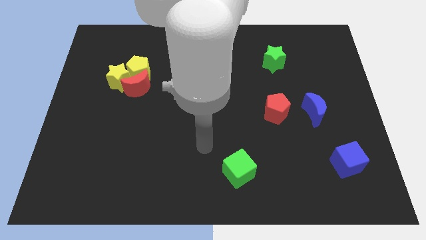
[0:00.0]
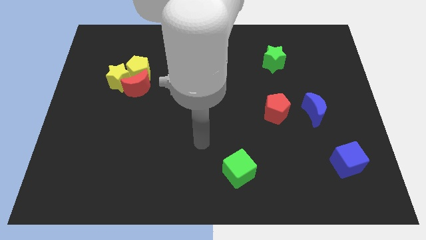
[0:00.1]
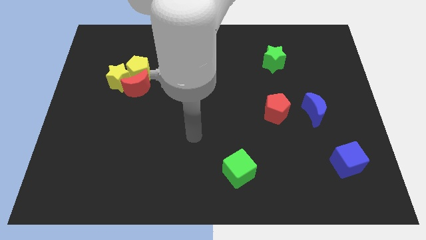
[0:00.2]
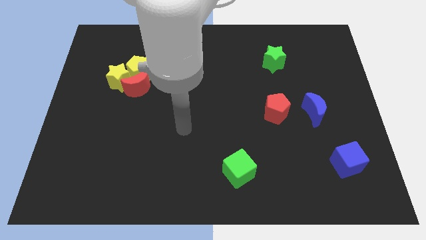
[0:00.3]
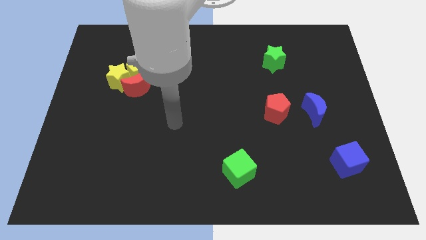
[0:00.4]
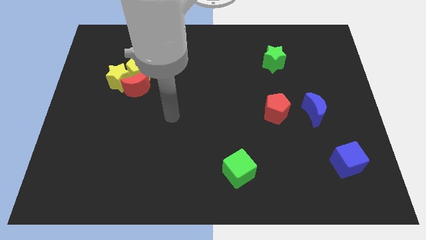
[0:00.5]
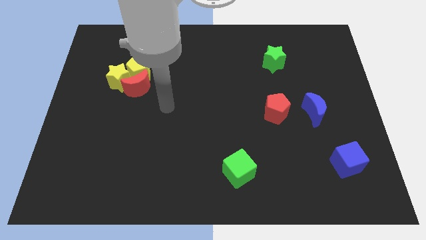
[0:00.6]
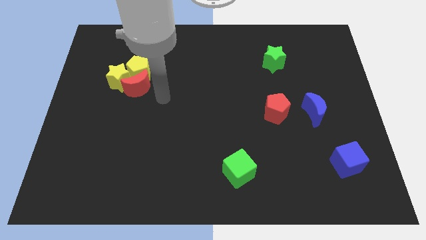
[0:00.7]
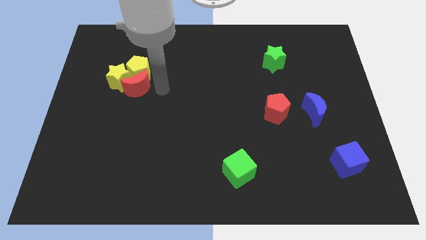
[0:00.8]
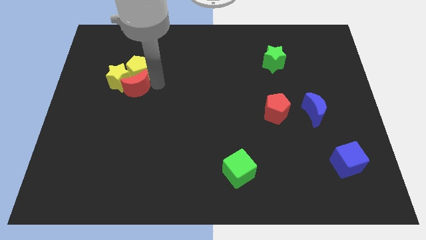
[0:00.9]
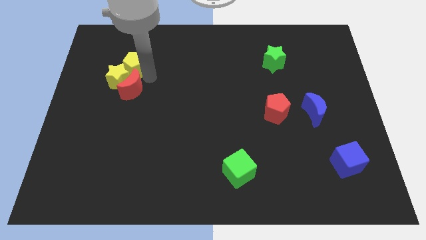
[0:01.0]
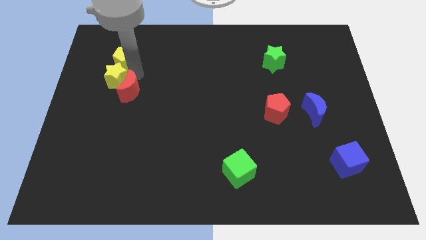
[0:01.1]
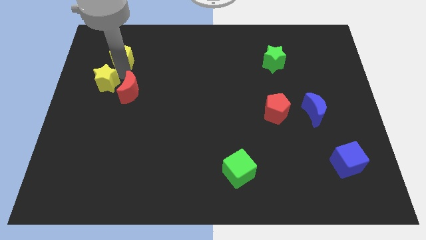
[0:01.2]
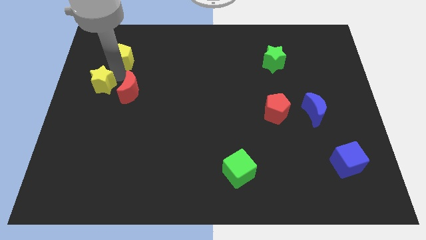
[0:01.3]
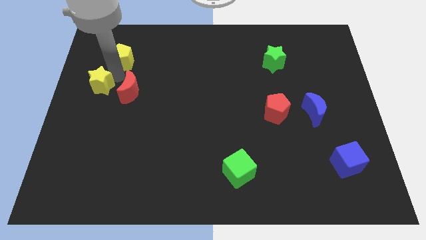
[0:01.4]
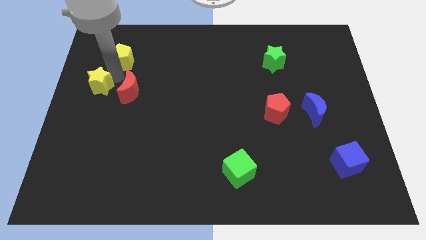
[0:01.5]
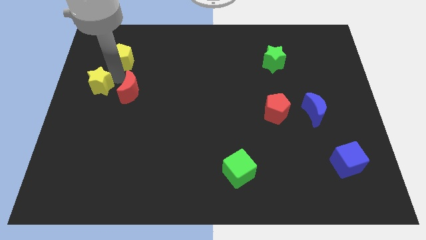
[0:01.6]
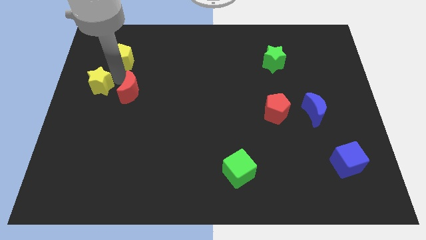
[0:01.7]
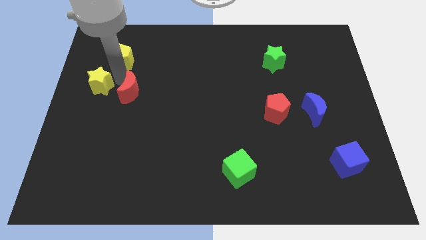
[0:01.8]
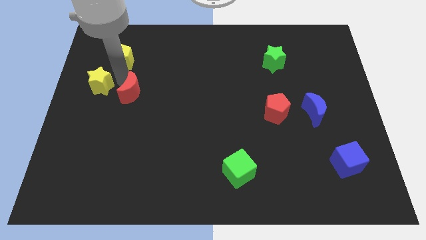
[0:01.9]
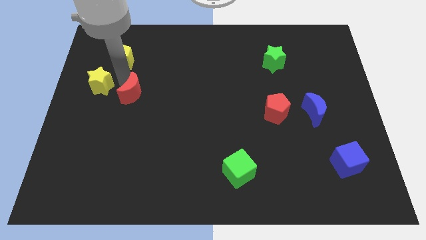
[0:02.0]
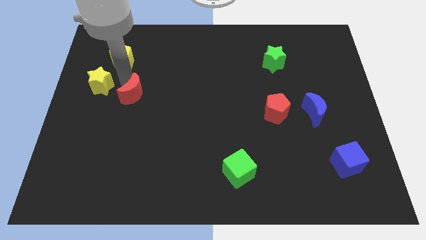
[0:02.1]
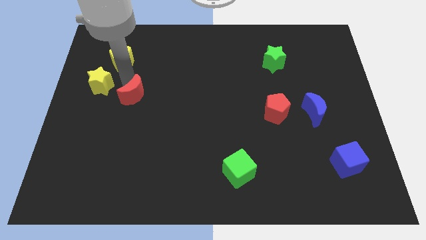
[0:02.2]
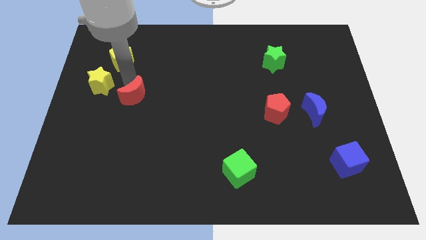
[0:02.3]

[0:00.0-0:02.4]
move the red moon away from the yellow pentagon and yellow star

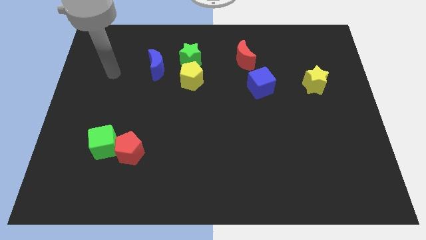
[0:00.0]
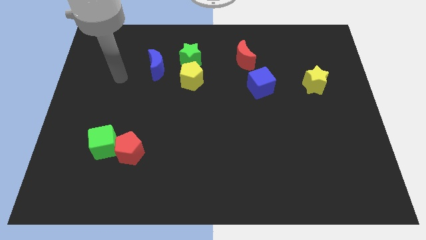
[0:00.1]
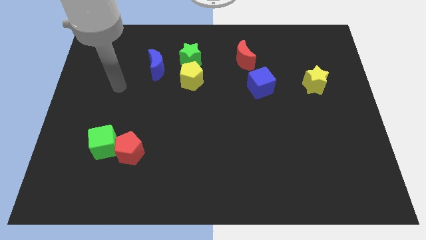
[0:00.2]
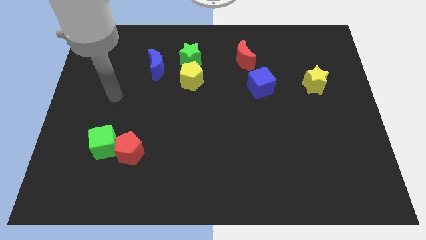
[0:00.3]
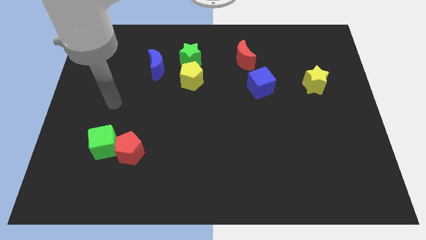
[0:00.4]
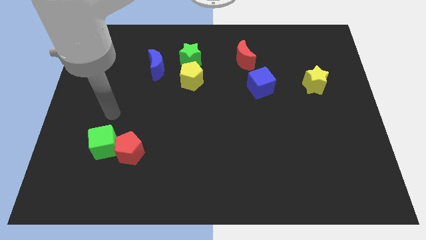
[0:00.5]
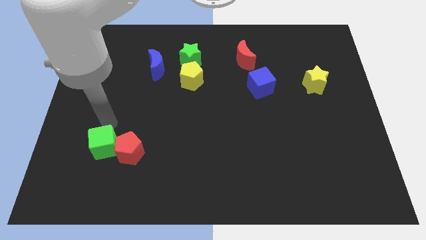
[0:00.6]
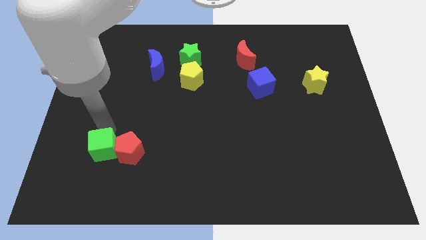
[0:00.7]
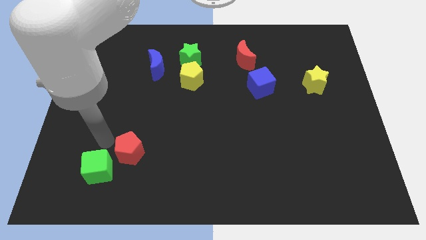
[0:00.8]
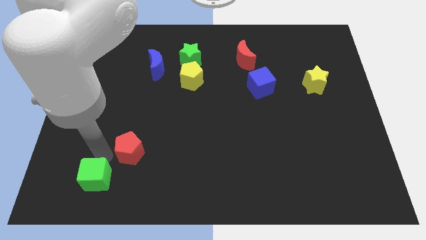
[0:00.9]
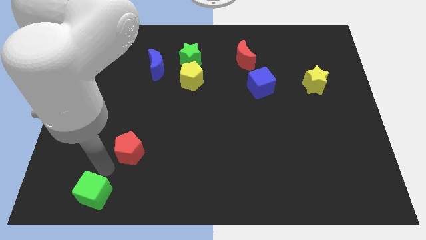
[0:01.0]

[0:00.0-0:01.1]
move the red pentagon away from the green cube

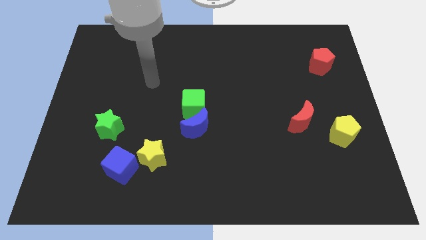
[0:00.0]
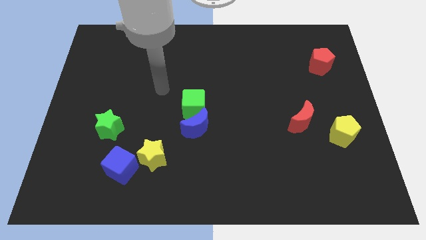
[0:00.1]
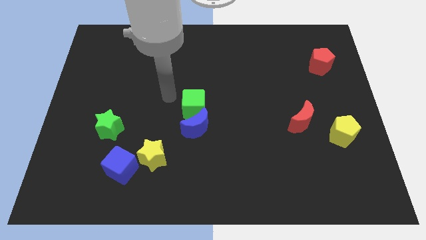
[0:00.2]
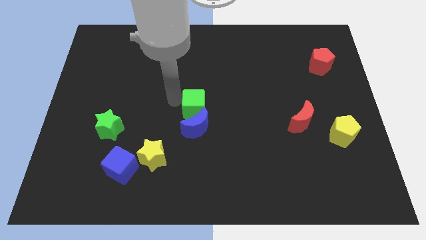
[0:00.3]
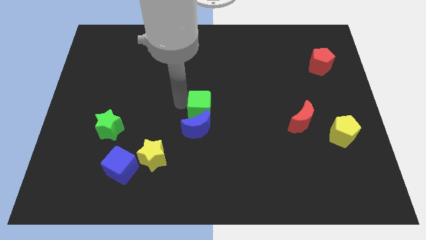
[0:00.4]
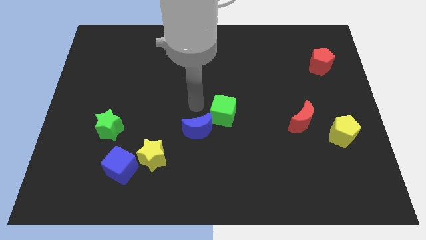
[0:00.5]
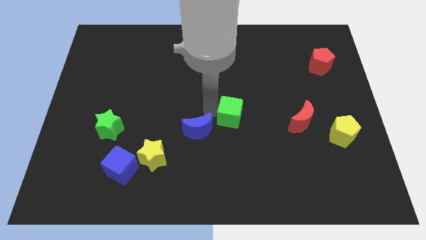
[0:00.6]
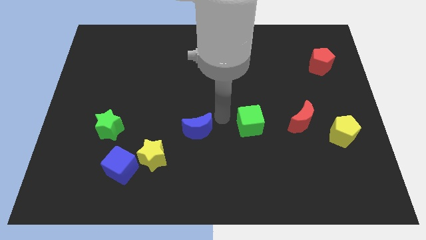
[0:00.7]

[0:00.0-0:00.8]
pull the blue moon apart from the green cube

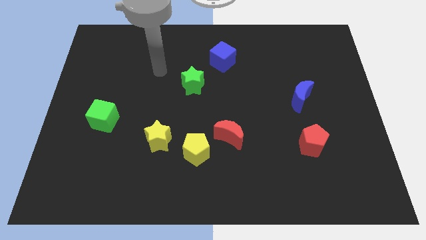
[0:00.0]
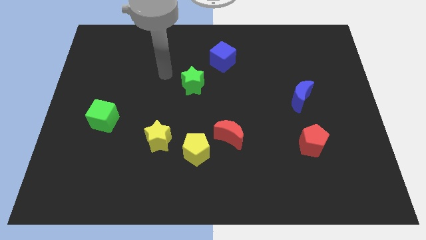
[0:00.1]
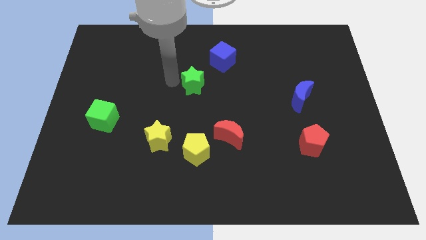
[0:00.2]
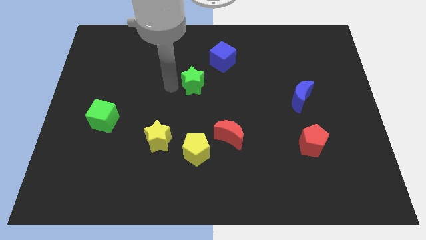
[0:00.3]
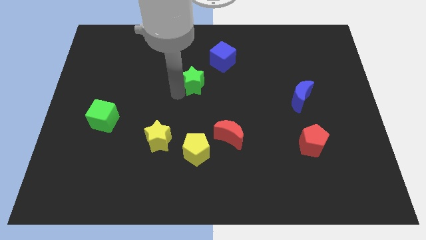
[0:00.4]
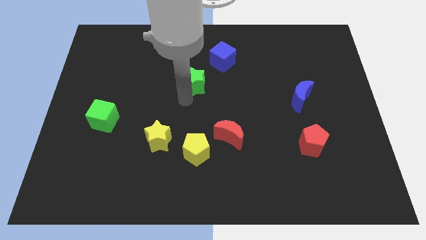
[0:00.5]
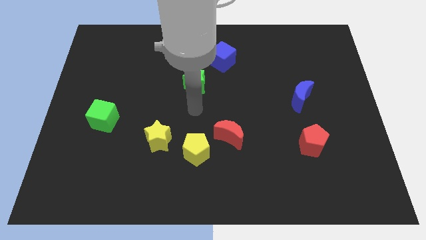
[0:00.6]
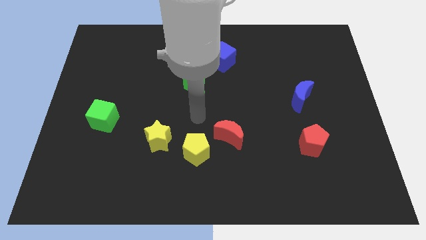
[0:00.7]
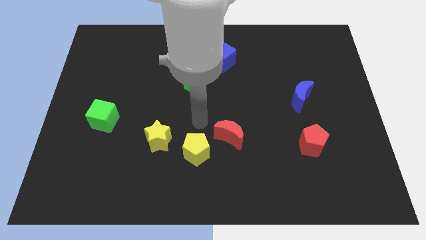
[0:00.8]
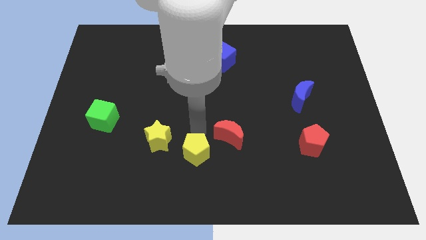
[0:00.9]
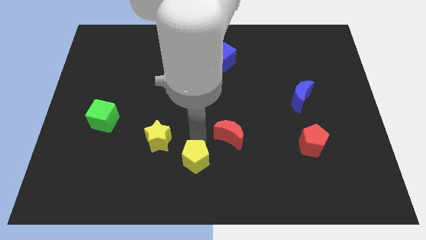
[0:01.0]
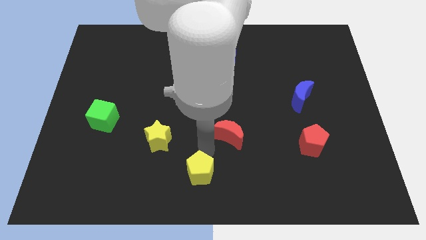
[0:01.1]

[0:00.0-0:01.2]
pull the red moon apart from the yellow pentagon

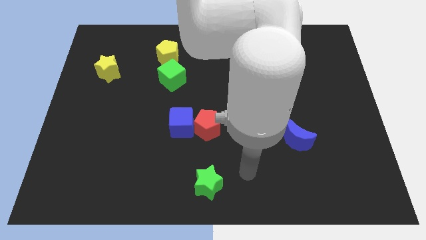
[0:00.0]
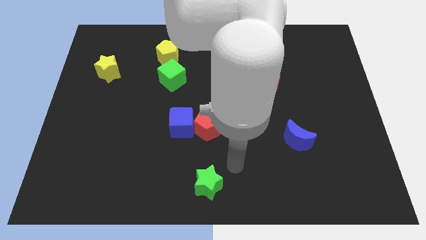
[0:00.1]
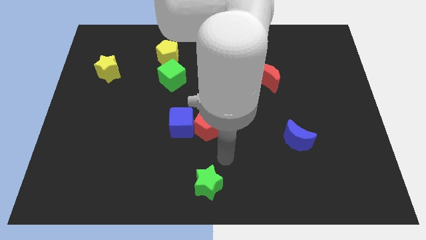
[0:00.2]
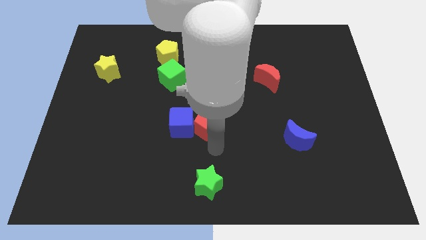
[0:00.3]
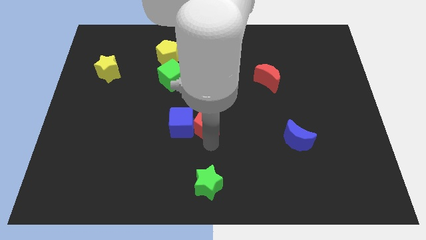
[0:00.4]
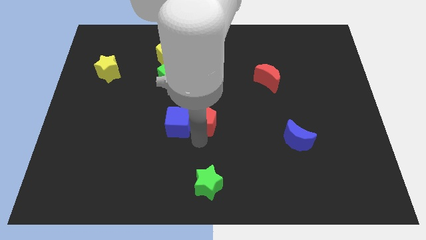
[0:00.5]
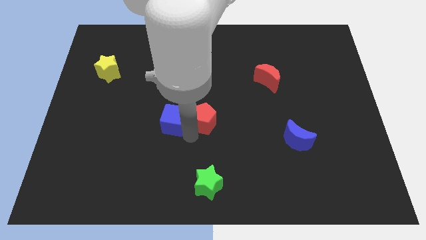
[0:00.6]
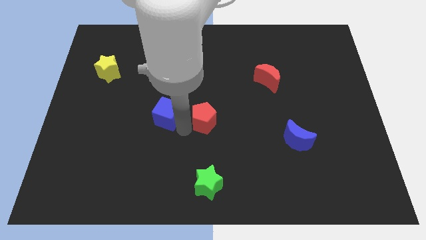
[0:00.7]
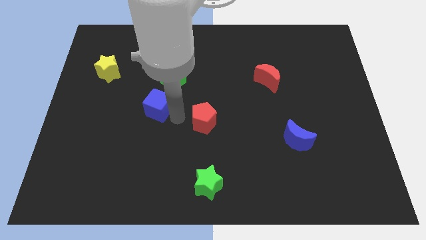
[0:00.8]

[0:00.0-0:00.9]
move the red pentagon away from the blue cube

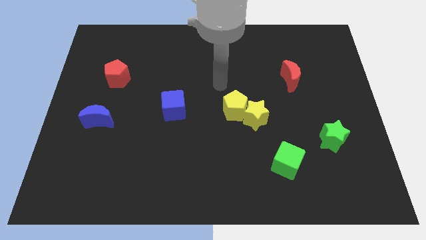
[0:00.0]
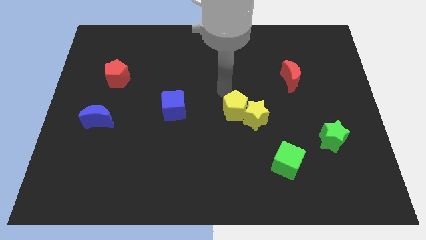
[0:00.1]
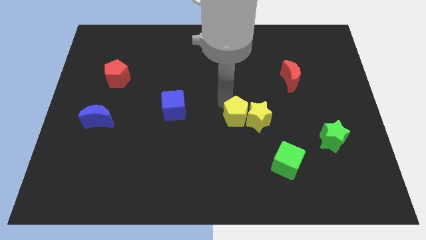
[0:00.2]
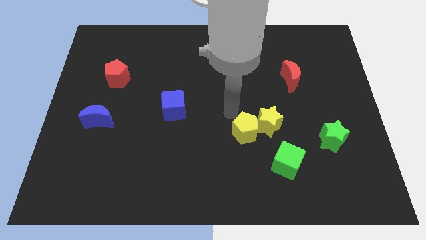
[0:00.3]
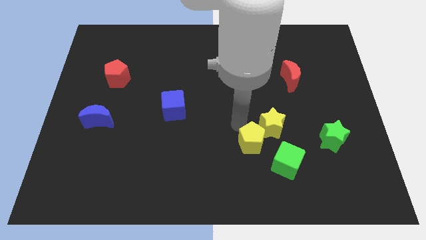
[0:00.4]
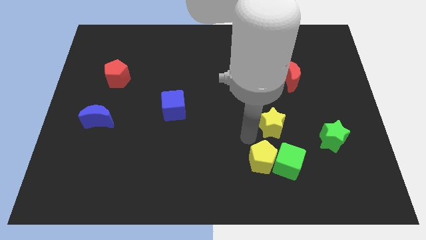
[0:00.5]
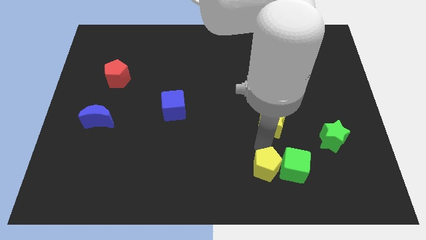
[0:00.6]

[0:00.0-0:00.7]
move the yellow star away from the yellow pentagon

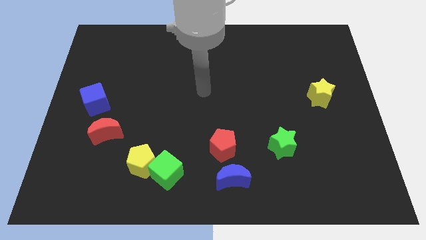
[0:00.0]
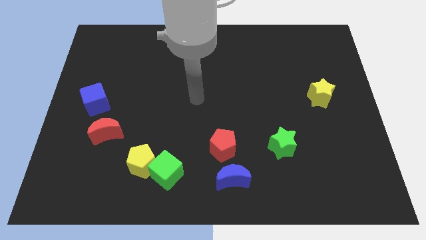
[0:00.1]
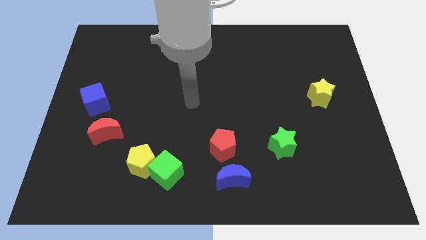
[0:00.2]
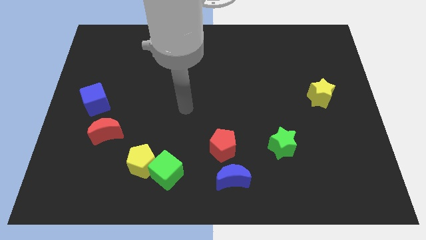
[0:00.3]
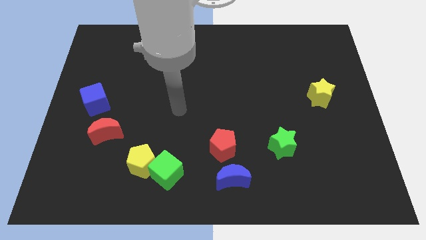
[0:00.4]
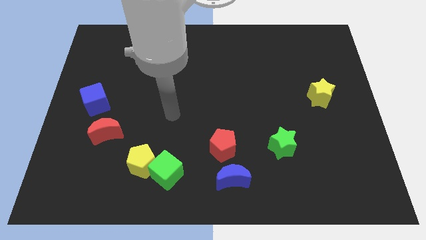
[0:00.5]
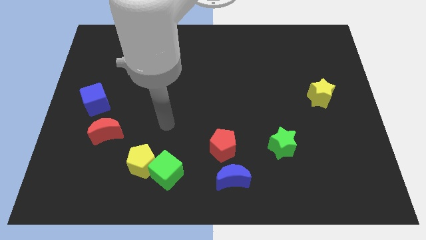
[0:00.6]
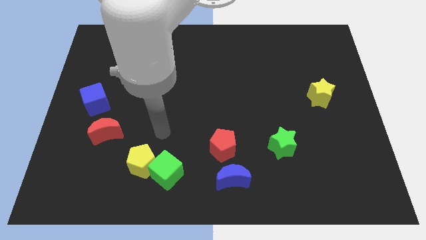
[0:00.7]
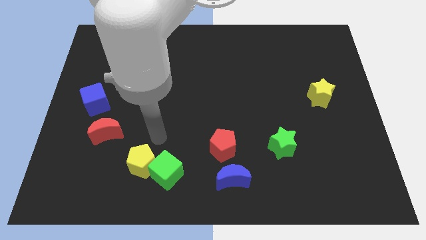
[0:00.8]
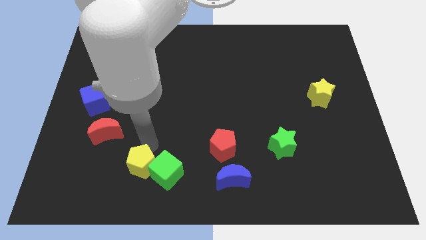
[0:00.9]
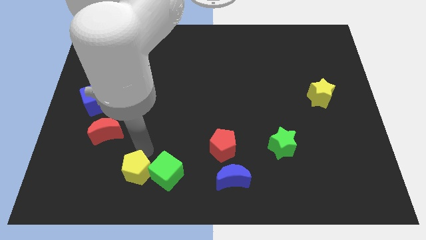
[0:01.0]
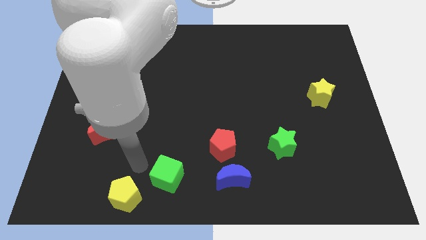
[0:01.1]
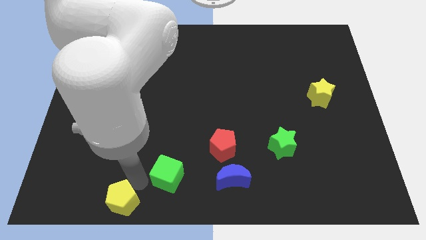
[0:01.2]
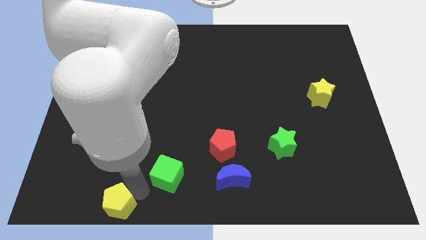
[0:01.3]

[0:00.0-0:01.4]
move the green cube away from the yellow pentagon

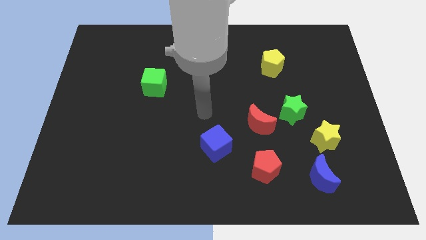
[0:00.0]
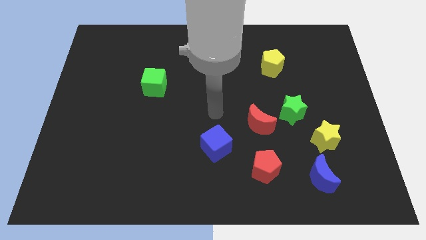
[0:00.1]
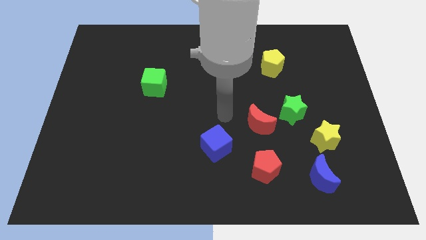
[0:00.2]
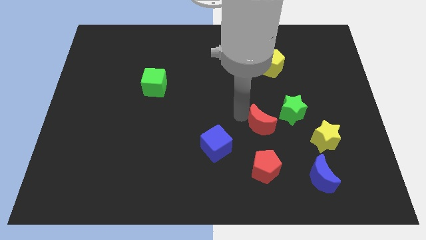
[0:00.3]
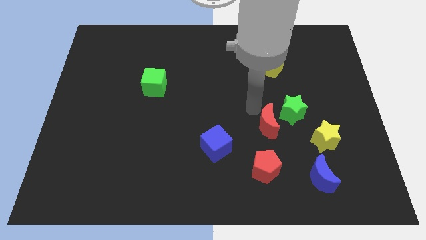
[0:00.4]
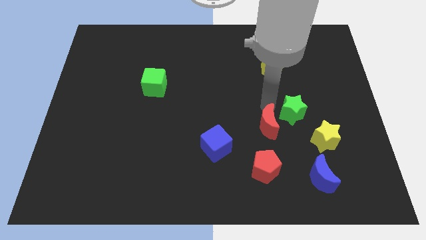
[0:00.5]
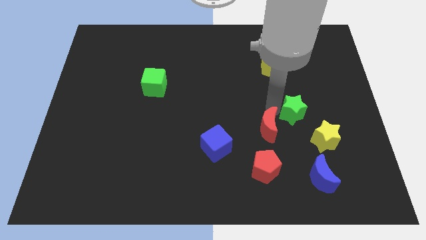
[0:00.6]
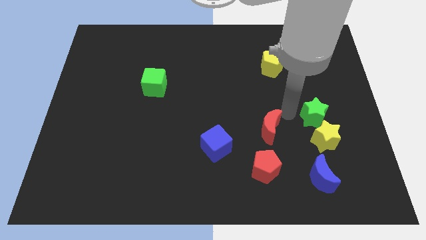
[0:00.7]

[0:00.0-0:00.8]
move the red moon away from the green star
